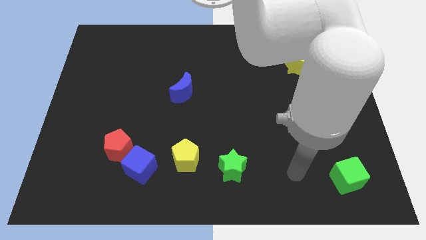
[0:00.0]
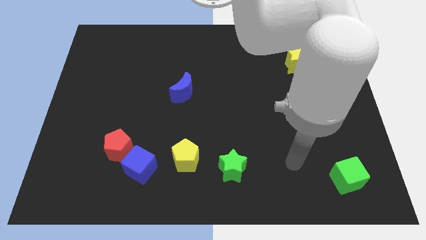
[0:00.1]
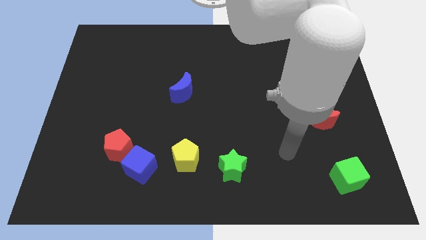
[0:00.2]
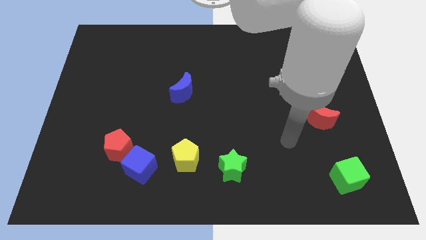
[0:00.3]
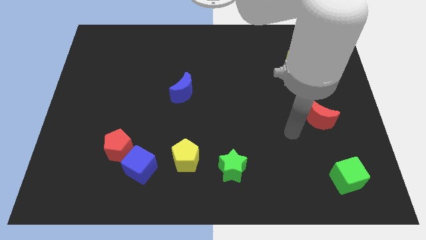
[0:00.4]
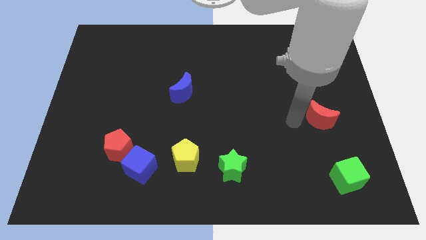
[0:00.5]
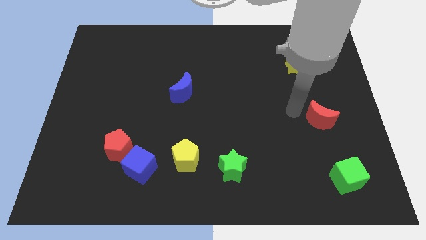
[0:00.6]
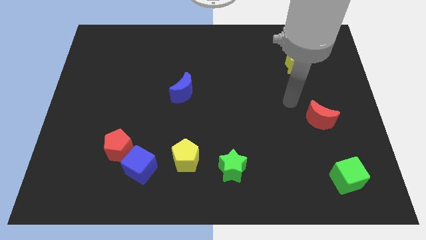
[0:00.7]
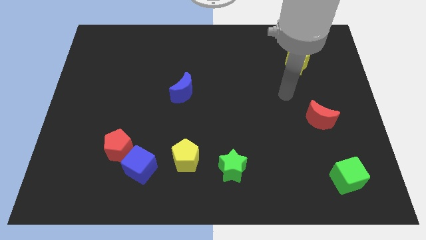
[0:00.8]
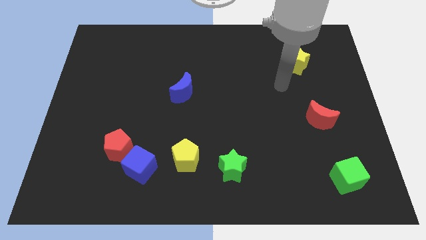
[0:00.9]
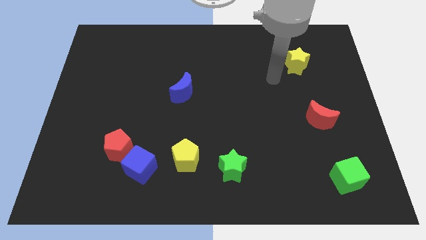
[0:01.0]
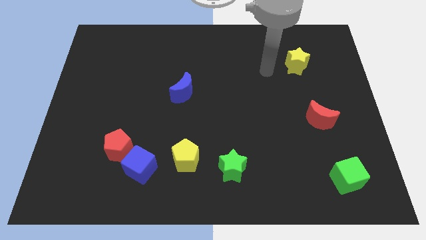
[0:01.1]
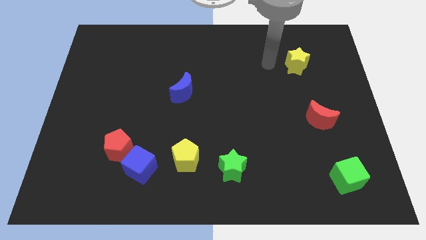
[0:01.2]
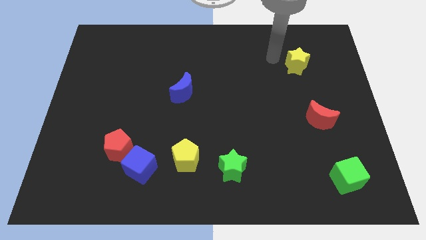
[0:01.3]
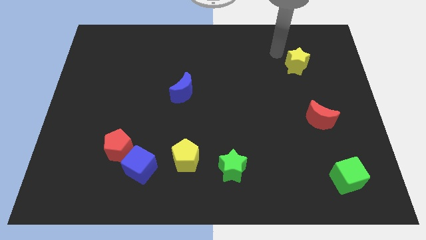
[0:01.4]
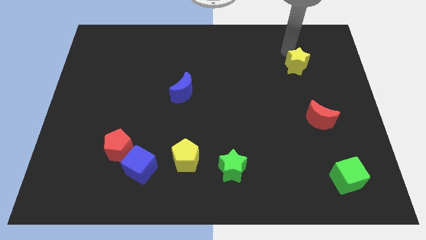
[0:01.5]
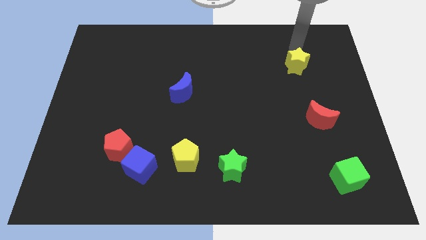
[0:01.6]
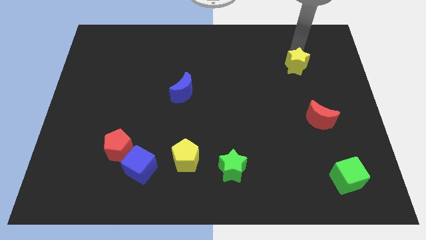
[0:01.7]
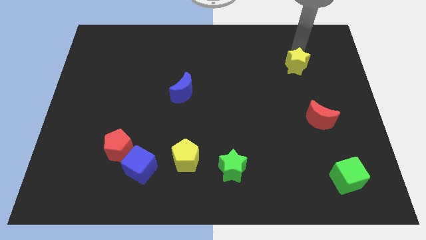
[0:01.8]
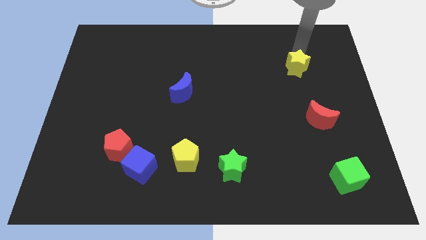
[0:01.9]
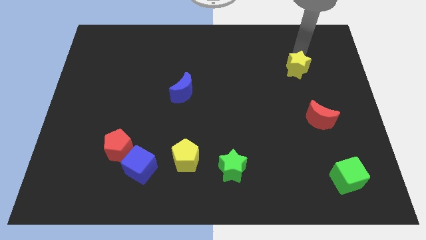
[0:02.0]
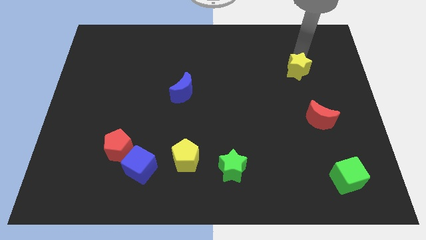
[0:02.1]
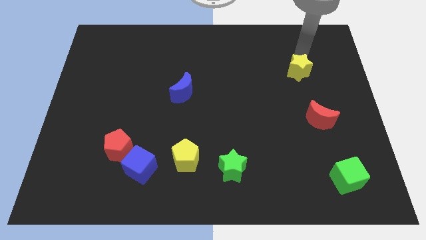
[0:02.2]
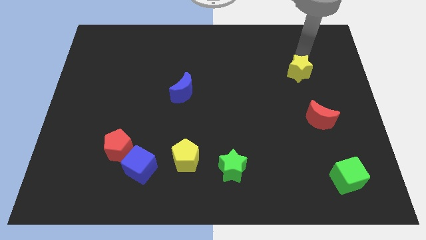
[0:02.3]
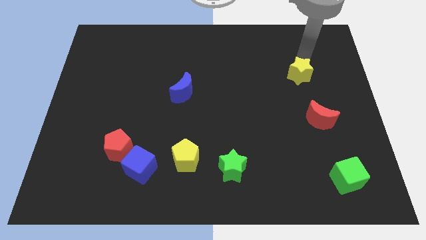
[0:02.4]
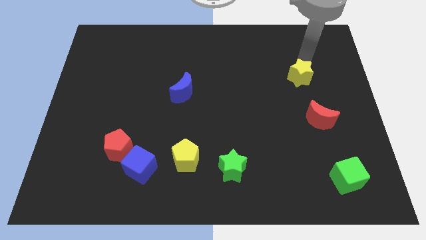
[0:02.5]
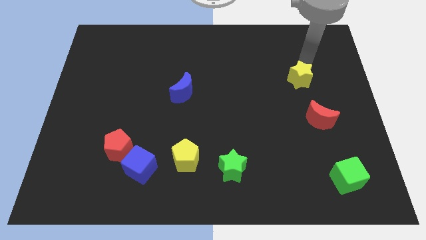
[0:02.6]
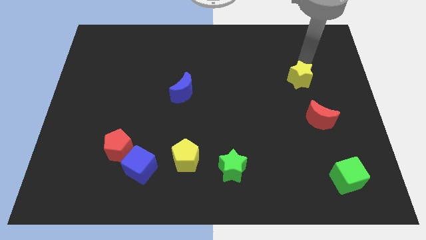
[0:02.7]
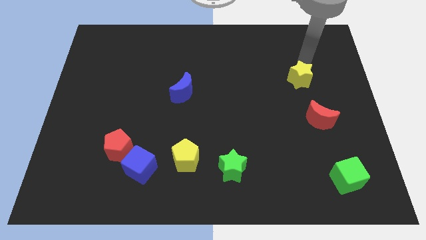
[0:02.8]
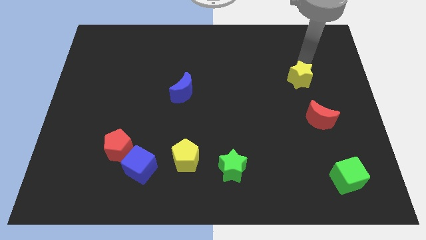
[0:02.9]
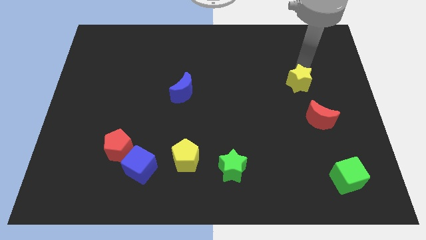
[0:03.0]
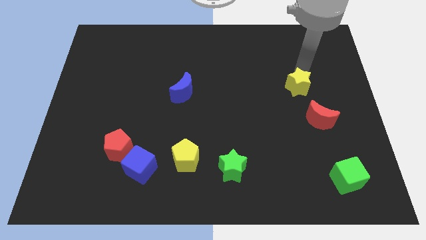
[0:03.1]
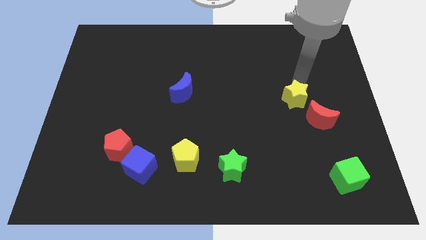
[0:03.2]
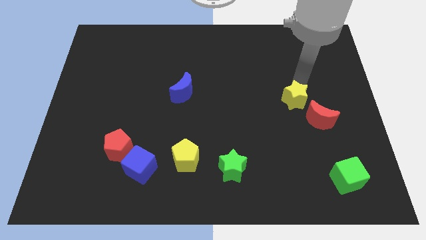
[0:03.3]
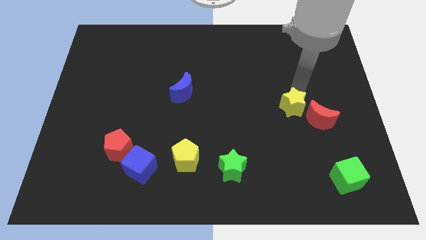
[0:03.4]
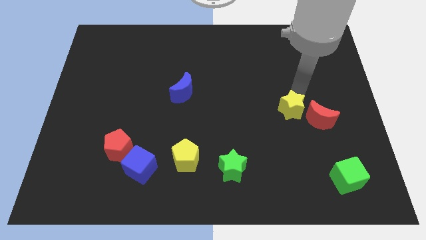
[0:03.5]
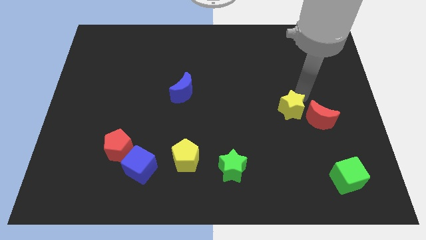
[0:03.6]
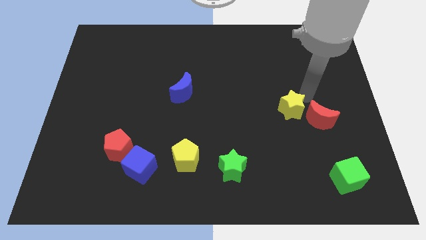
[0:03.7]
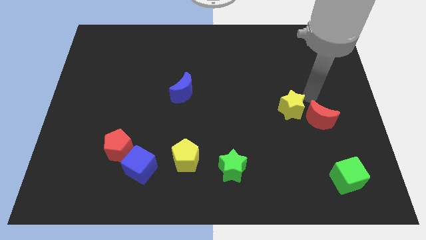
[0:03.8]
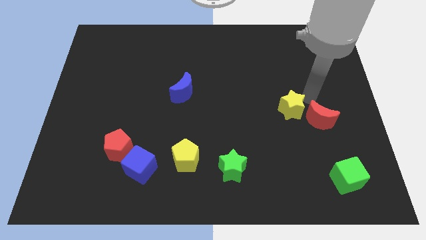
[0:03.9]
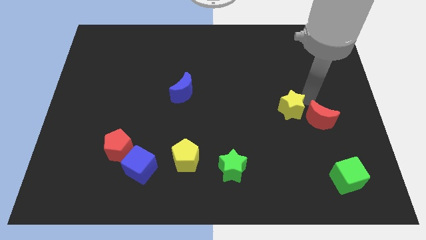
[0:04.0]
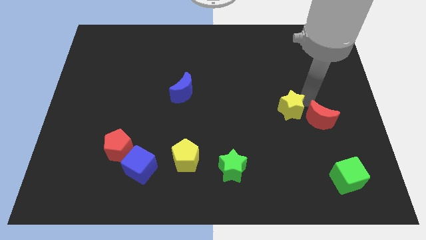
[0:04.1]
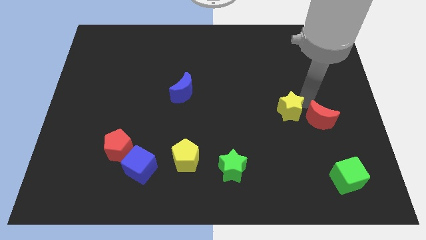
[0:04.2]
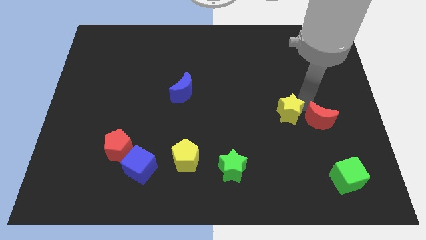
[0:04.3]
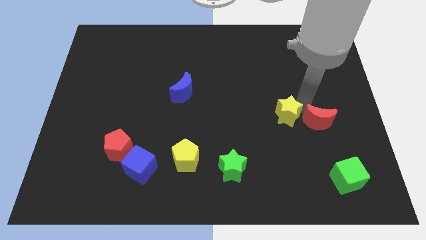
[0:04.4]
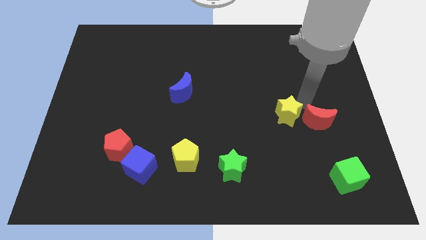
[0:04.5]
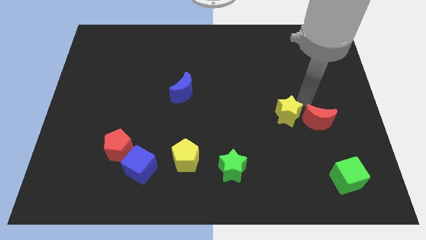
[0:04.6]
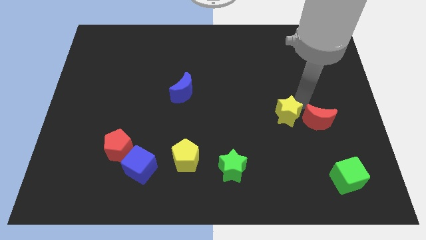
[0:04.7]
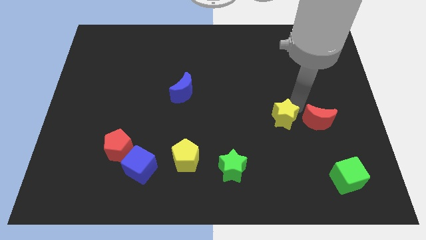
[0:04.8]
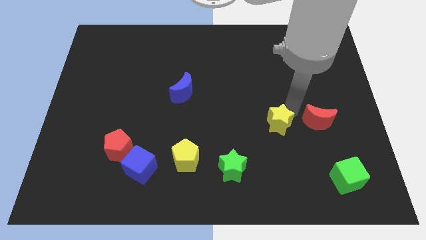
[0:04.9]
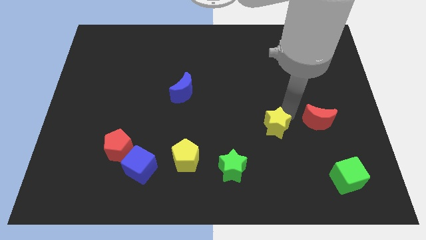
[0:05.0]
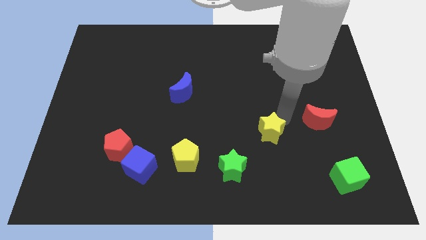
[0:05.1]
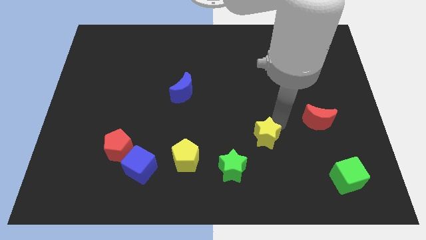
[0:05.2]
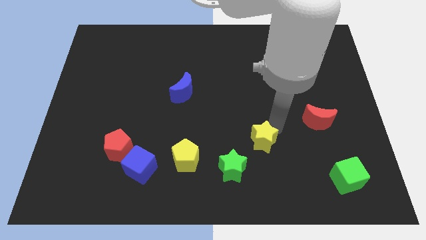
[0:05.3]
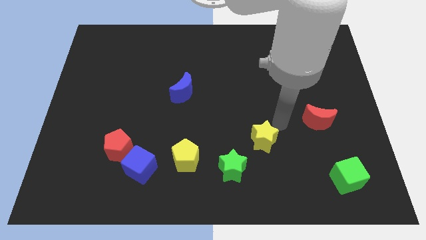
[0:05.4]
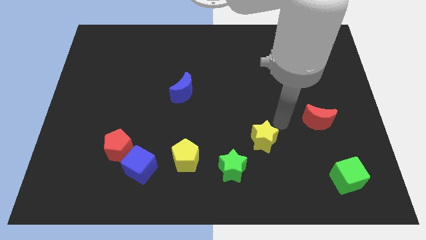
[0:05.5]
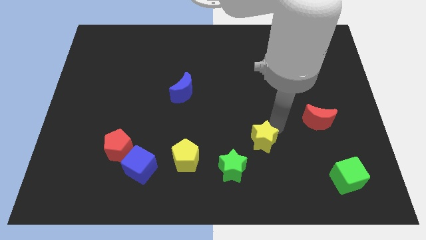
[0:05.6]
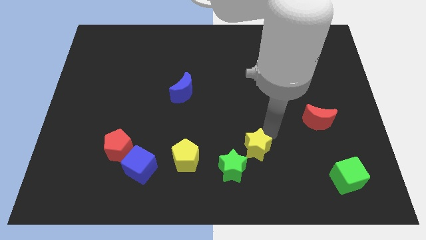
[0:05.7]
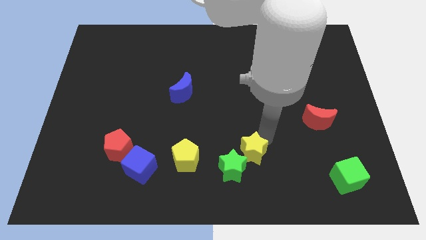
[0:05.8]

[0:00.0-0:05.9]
slide the yellow star towards the green star

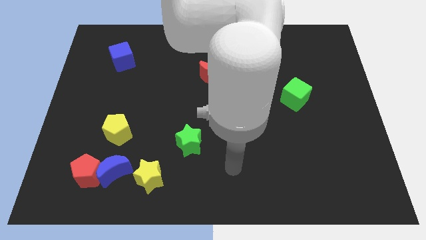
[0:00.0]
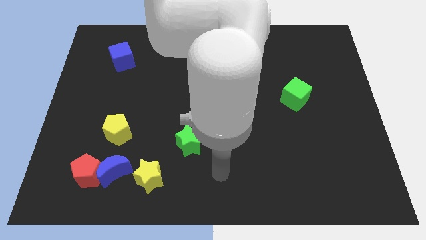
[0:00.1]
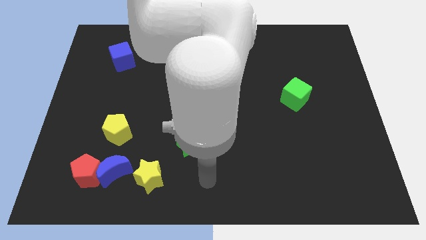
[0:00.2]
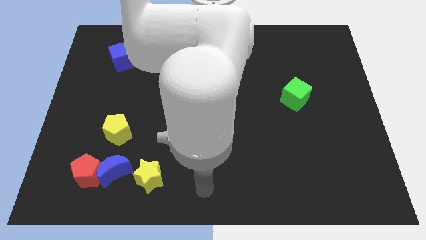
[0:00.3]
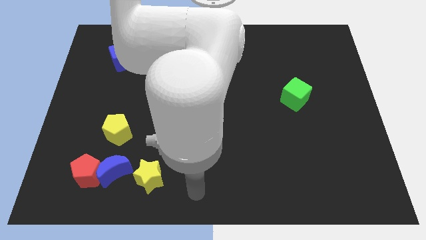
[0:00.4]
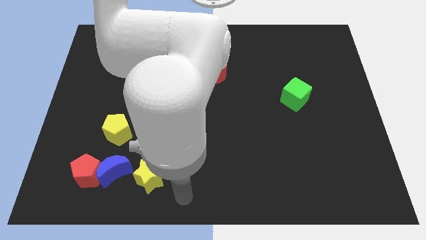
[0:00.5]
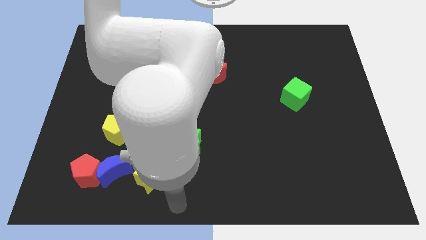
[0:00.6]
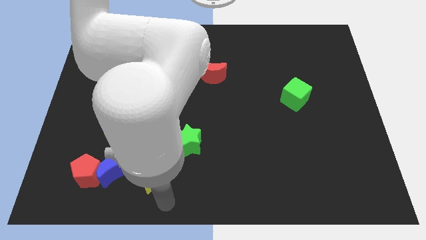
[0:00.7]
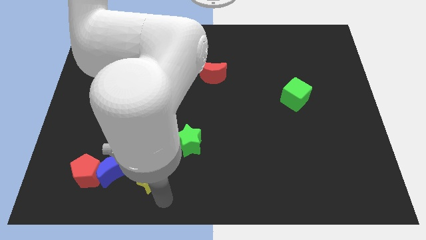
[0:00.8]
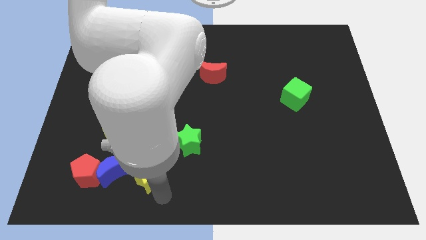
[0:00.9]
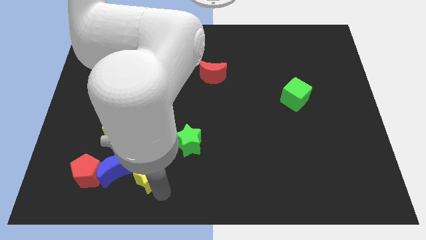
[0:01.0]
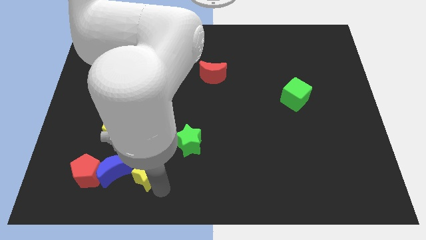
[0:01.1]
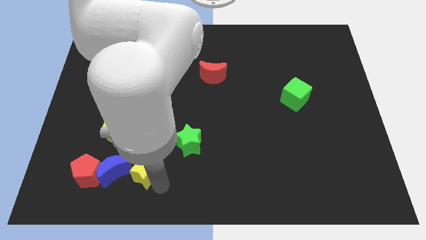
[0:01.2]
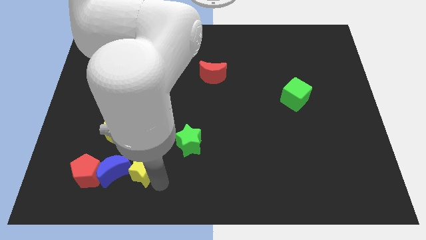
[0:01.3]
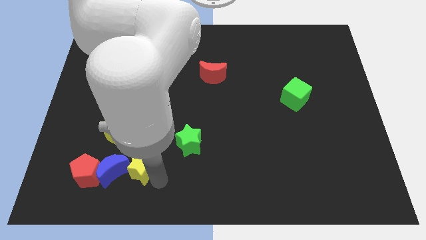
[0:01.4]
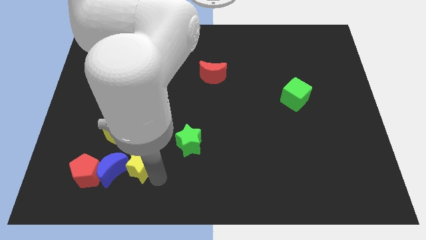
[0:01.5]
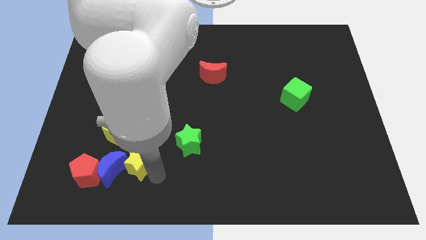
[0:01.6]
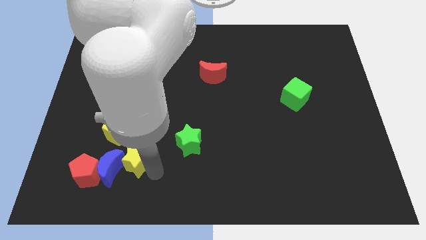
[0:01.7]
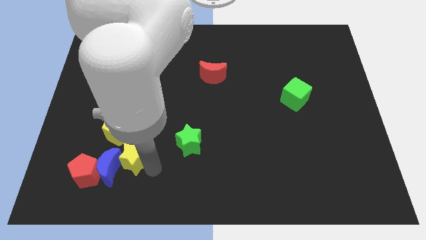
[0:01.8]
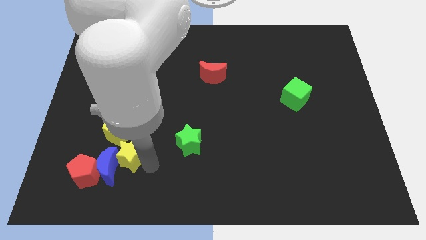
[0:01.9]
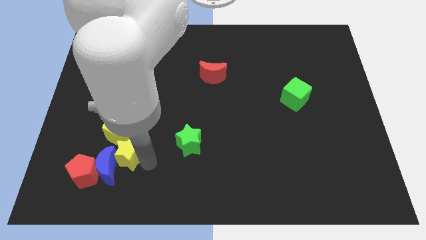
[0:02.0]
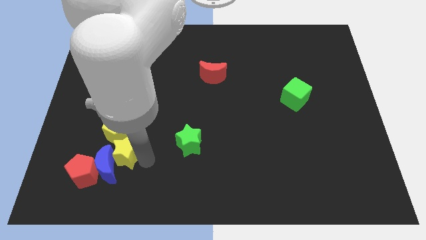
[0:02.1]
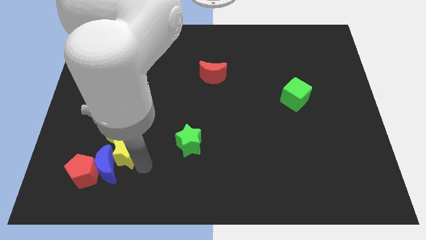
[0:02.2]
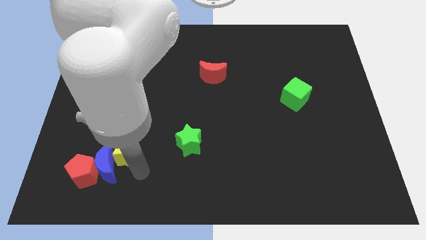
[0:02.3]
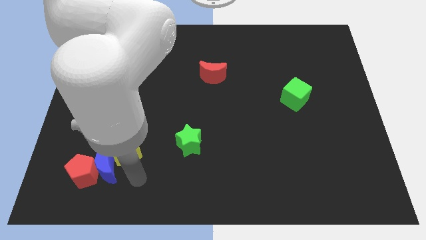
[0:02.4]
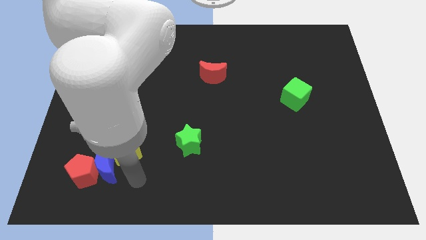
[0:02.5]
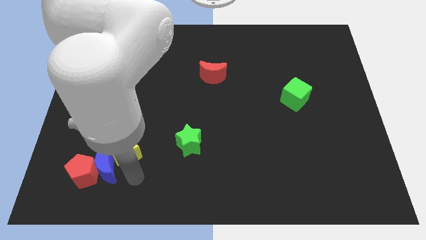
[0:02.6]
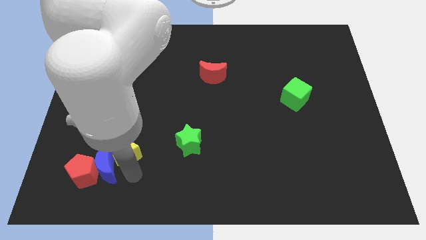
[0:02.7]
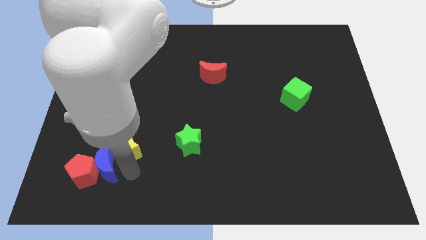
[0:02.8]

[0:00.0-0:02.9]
move the yellow star towards the yellow pentagon
